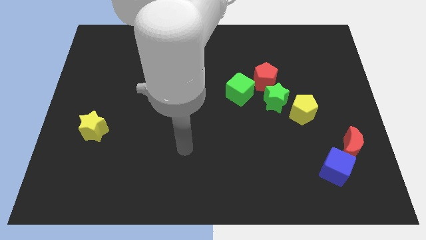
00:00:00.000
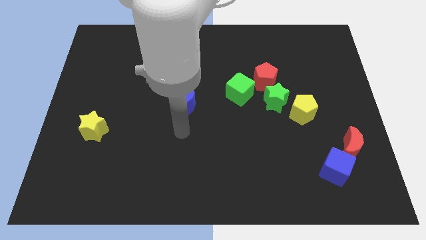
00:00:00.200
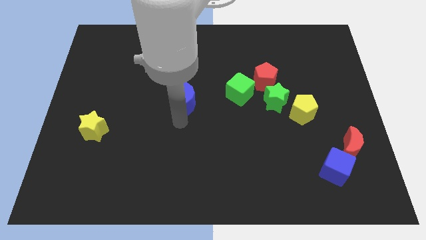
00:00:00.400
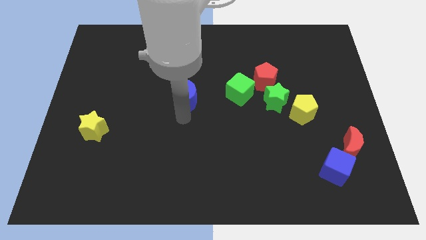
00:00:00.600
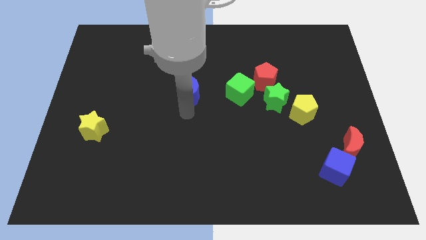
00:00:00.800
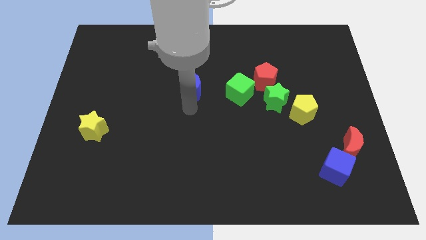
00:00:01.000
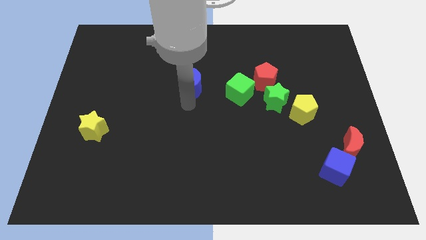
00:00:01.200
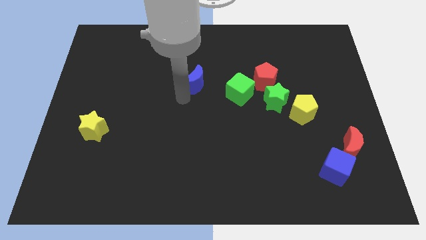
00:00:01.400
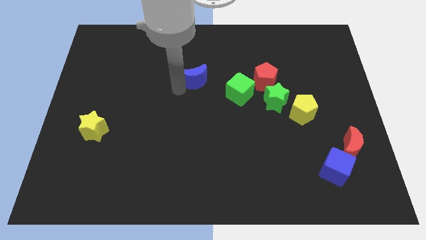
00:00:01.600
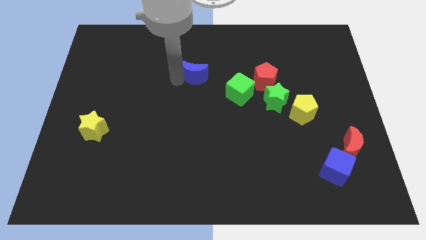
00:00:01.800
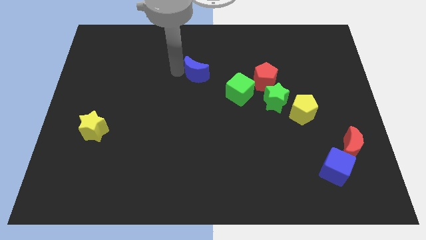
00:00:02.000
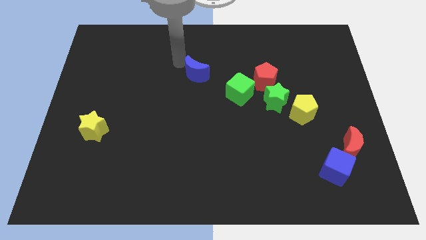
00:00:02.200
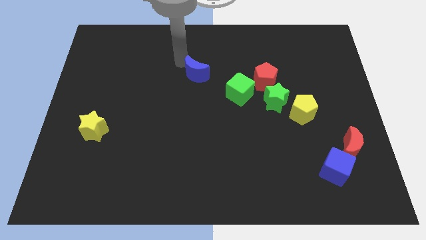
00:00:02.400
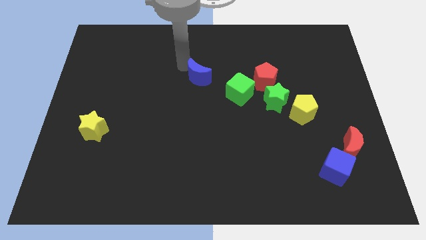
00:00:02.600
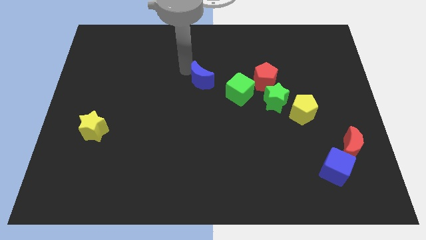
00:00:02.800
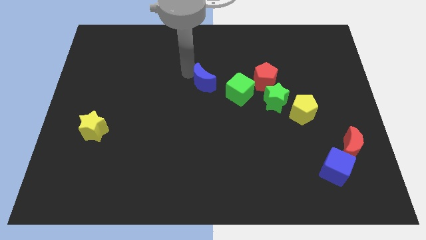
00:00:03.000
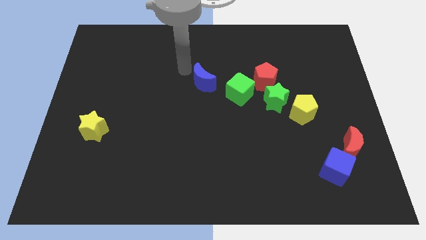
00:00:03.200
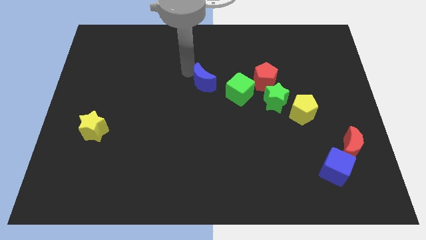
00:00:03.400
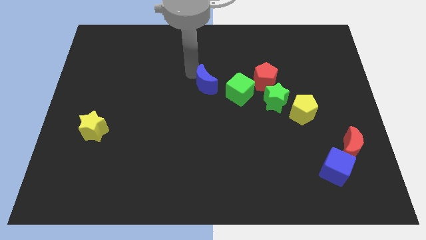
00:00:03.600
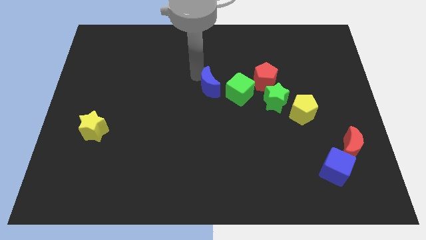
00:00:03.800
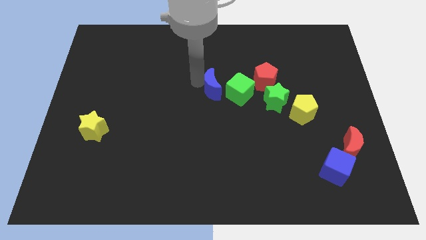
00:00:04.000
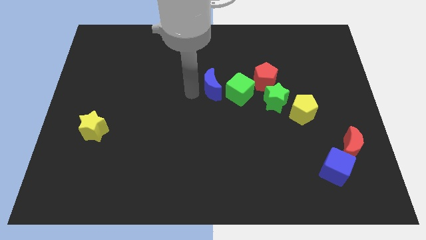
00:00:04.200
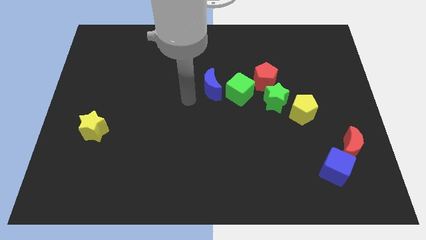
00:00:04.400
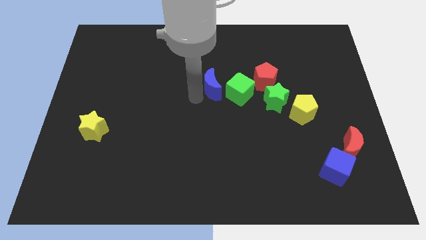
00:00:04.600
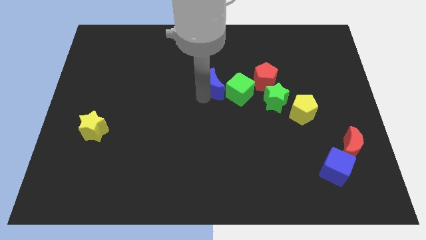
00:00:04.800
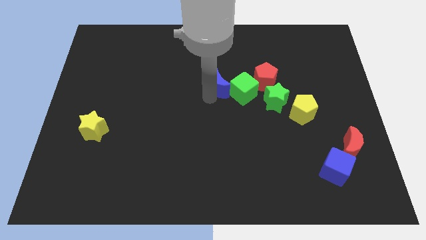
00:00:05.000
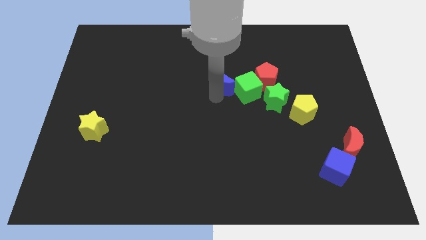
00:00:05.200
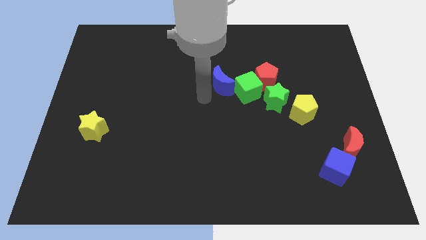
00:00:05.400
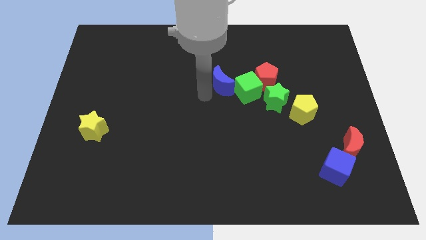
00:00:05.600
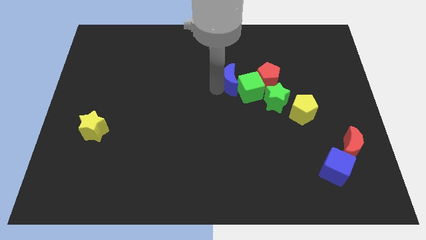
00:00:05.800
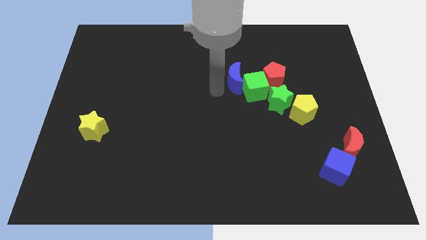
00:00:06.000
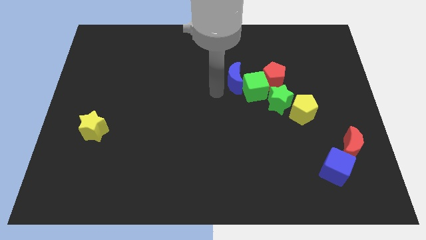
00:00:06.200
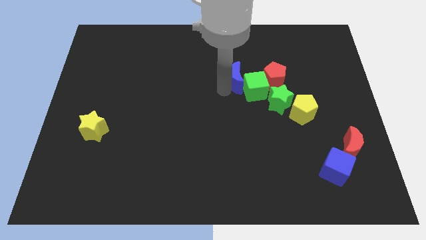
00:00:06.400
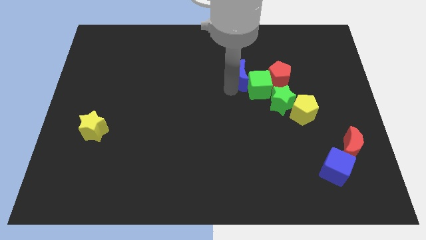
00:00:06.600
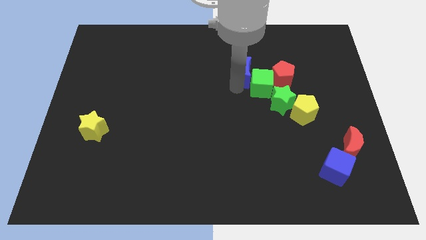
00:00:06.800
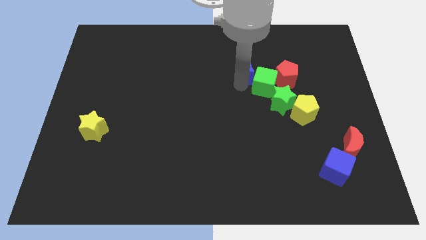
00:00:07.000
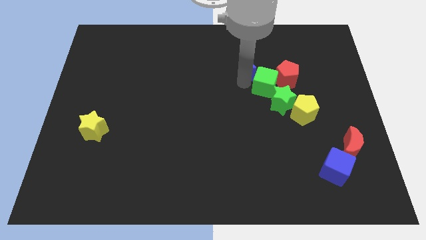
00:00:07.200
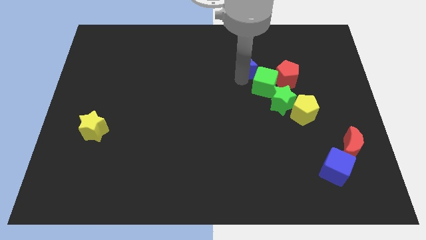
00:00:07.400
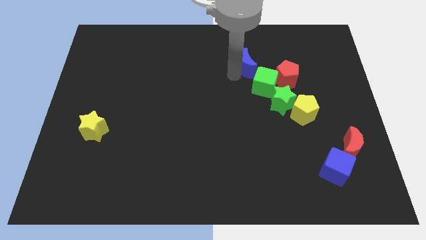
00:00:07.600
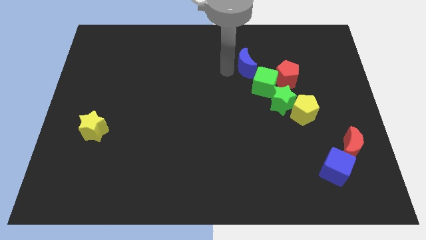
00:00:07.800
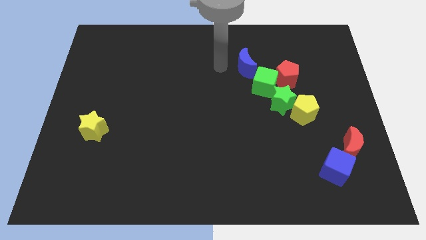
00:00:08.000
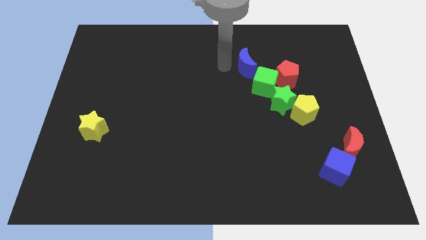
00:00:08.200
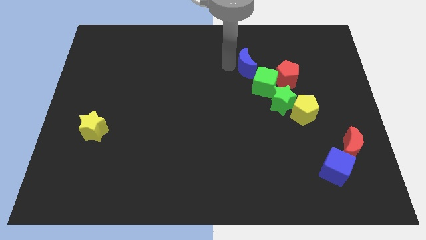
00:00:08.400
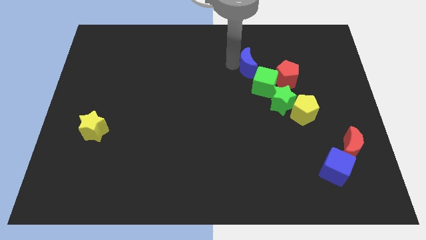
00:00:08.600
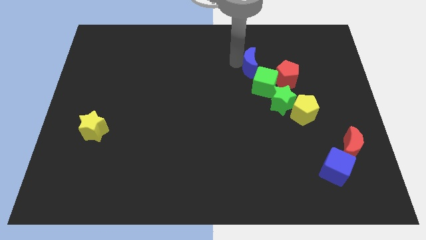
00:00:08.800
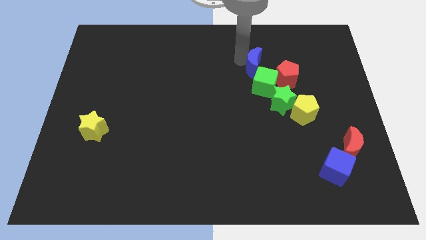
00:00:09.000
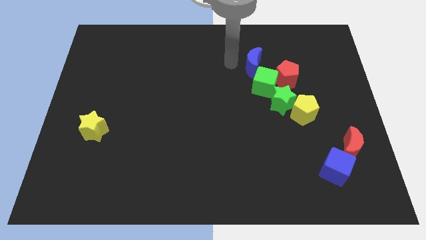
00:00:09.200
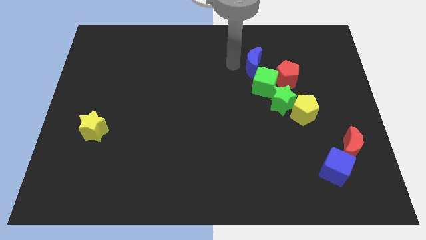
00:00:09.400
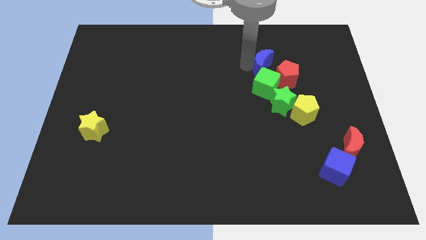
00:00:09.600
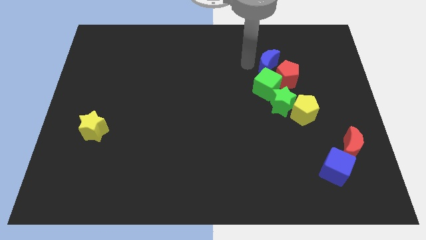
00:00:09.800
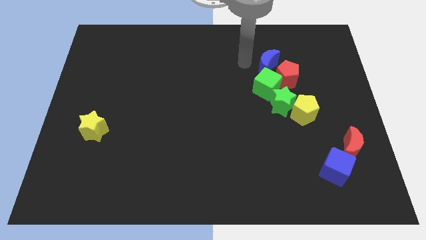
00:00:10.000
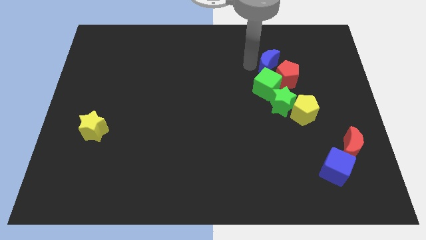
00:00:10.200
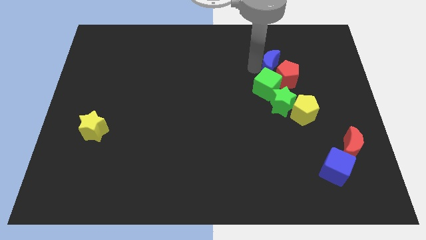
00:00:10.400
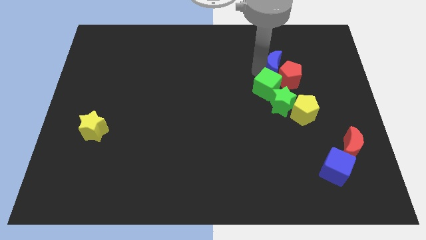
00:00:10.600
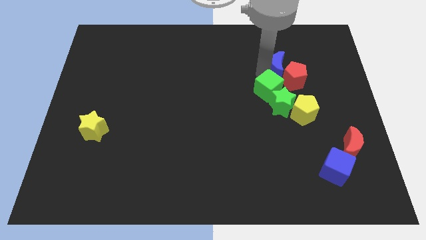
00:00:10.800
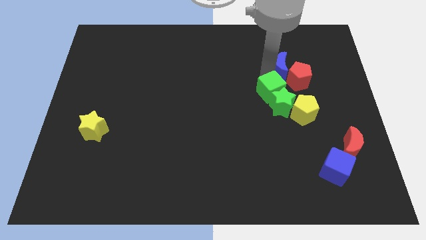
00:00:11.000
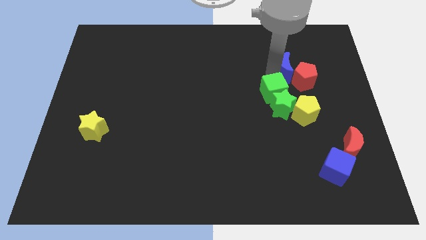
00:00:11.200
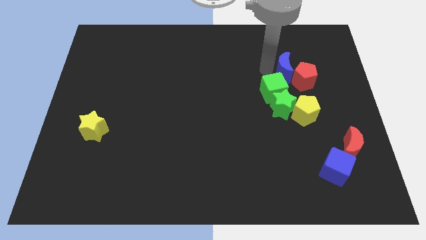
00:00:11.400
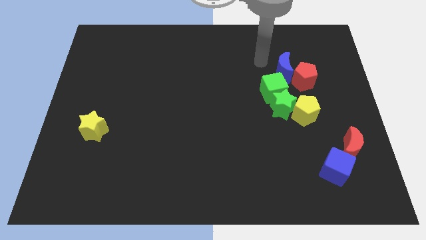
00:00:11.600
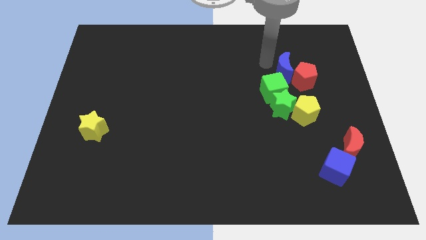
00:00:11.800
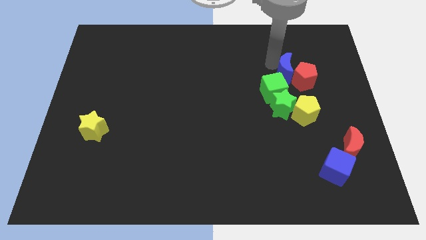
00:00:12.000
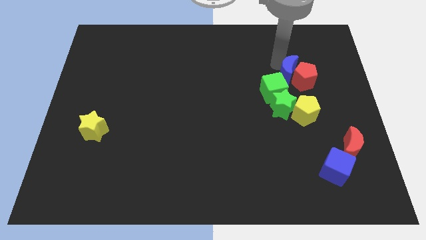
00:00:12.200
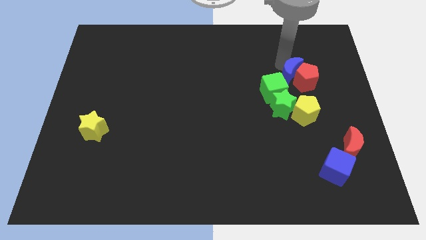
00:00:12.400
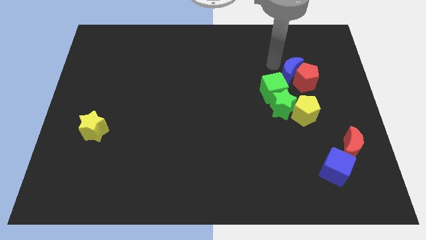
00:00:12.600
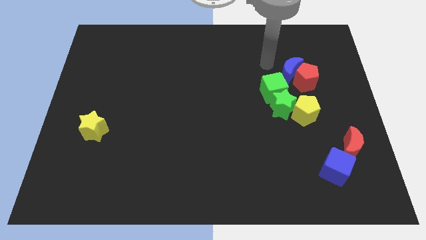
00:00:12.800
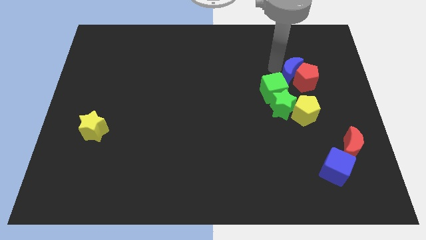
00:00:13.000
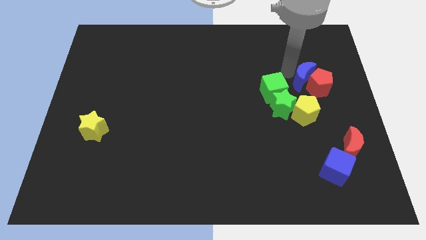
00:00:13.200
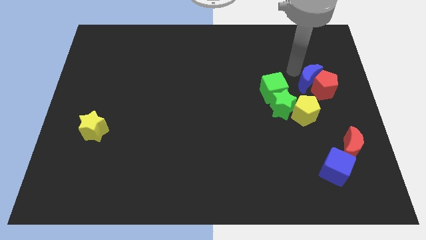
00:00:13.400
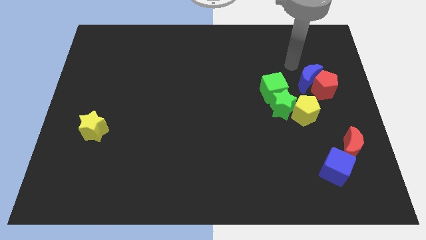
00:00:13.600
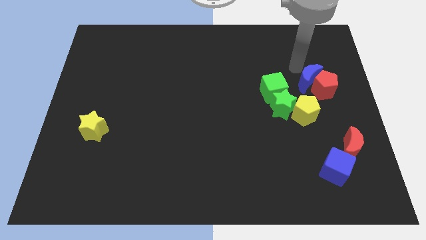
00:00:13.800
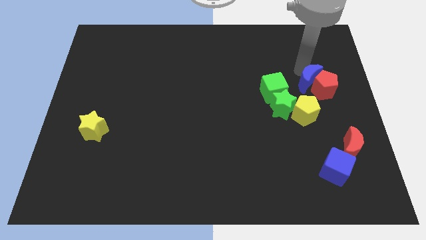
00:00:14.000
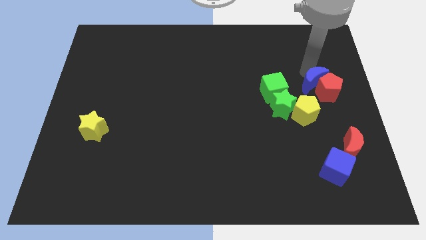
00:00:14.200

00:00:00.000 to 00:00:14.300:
slide the blue moon to the top right of the yellow pentagon

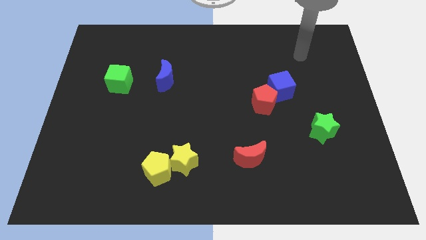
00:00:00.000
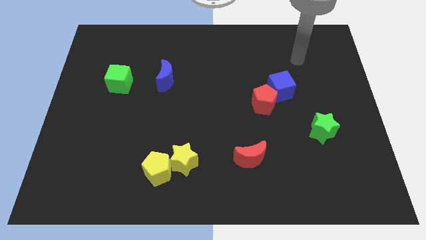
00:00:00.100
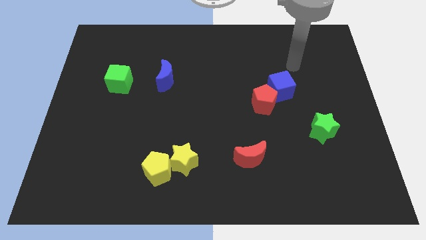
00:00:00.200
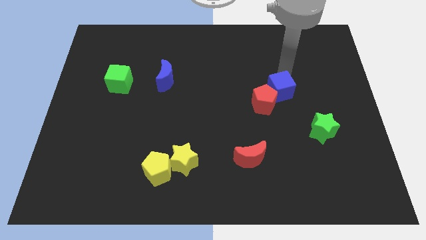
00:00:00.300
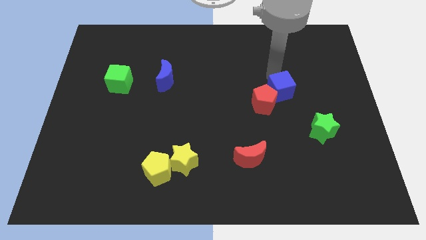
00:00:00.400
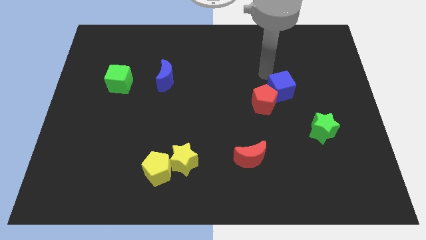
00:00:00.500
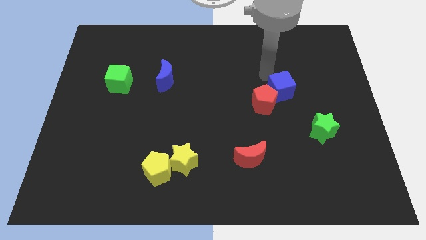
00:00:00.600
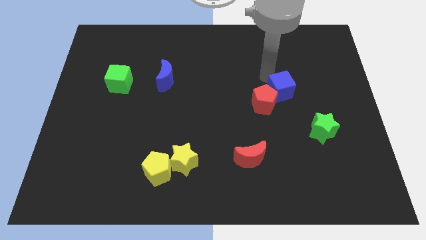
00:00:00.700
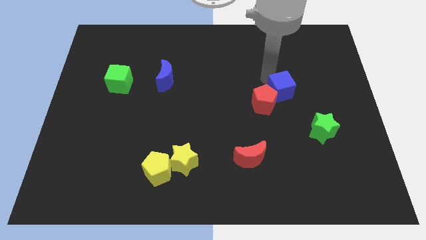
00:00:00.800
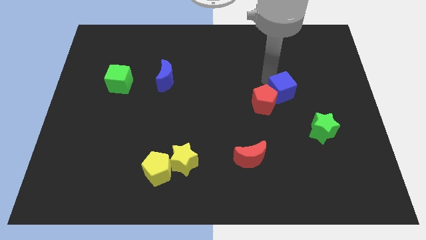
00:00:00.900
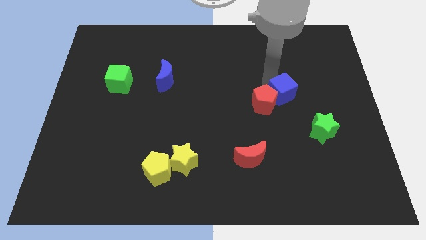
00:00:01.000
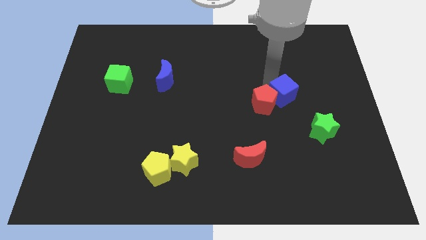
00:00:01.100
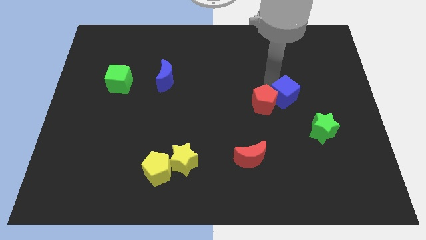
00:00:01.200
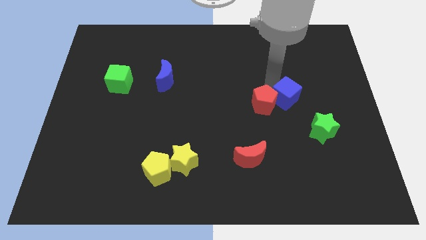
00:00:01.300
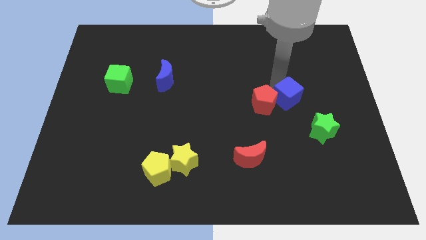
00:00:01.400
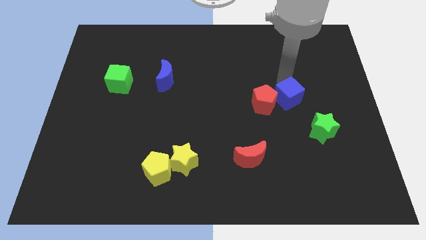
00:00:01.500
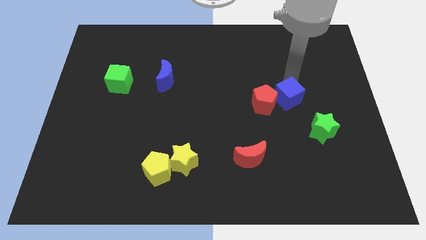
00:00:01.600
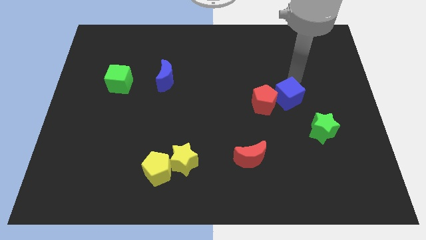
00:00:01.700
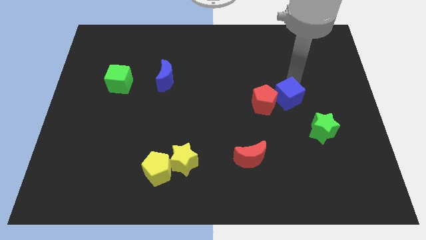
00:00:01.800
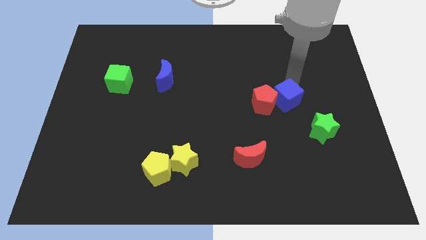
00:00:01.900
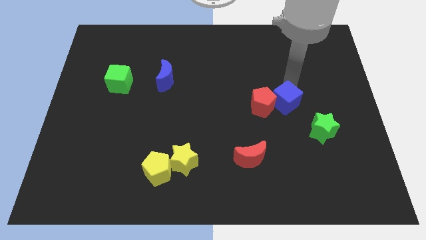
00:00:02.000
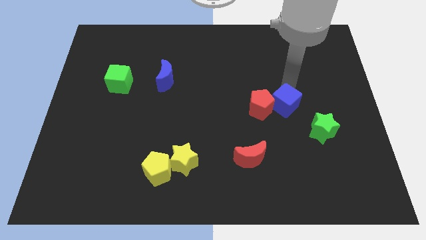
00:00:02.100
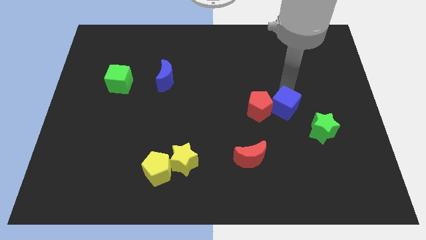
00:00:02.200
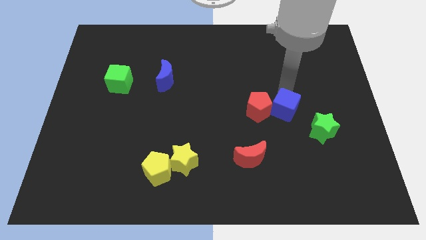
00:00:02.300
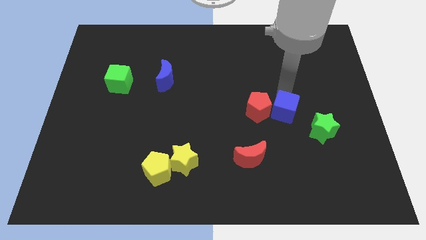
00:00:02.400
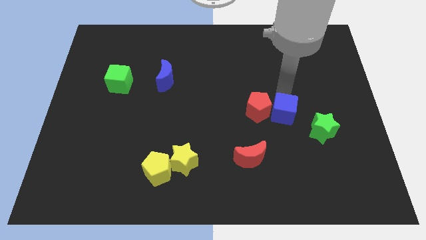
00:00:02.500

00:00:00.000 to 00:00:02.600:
push the blue cube to the left of the green star
